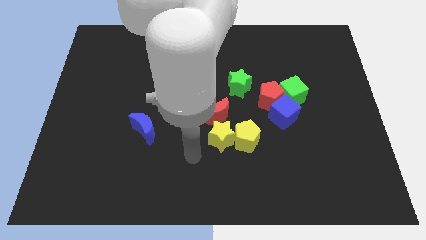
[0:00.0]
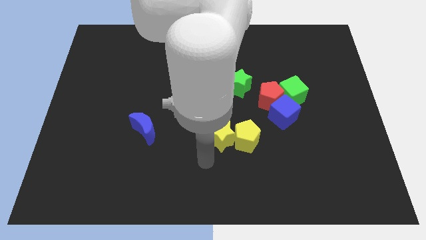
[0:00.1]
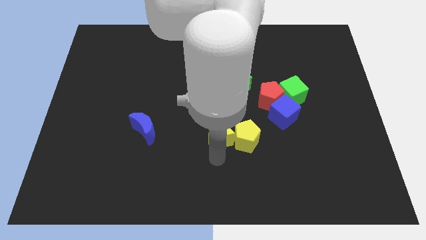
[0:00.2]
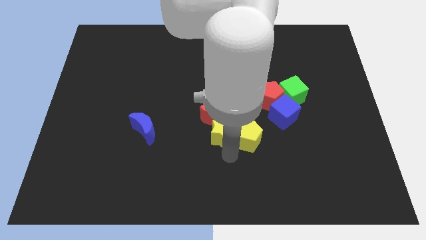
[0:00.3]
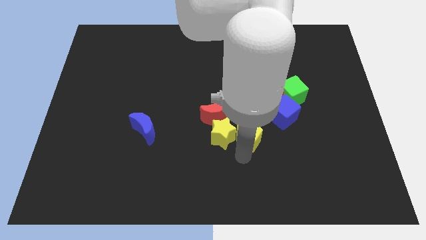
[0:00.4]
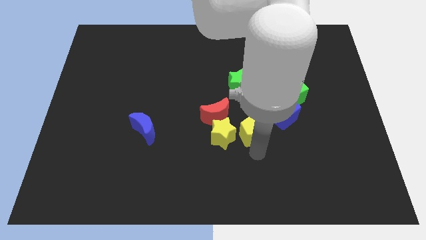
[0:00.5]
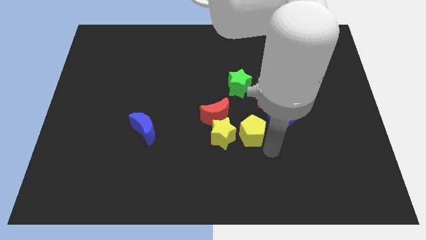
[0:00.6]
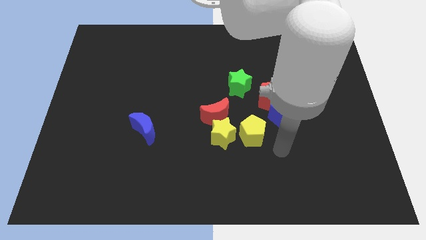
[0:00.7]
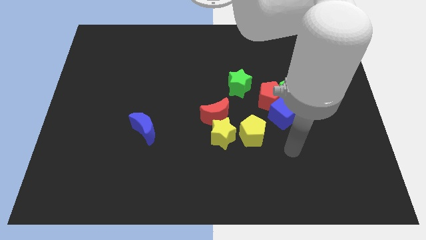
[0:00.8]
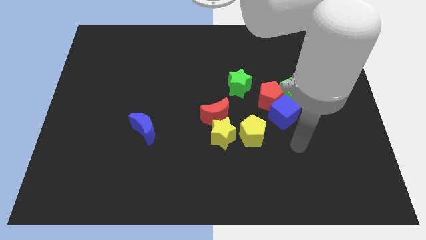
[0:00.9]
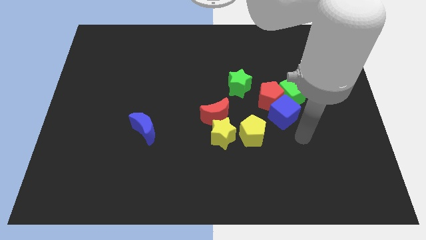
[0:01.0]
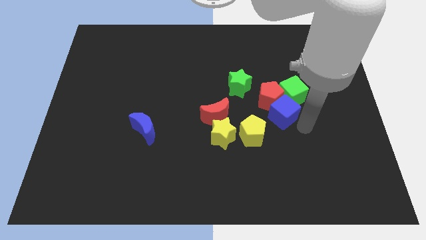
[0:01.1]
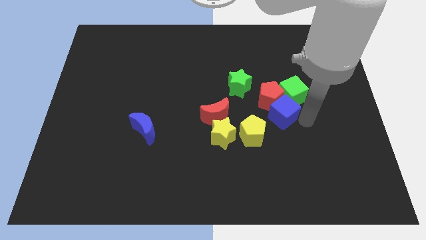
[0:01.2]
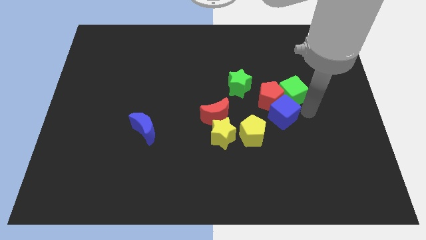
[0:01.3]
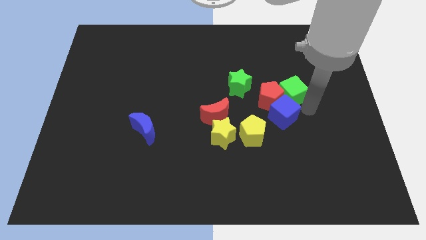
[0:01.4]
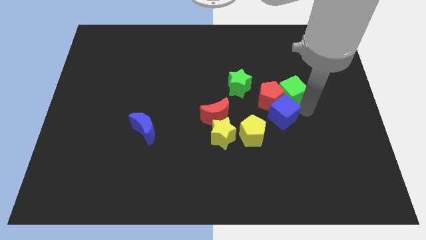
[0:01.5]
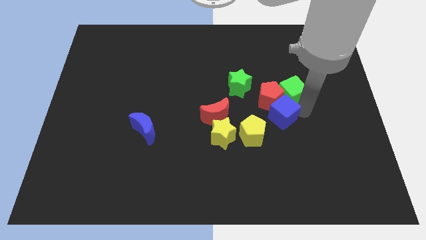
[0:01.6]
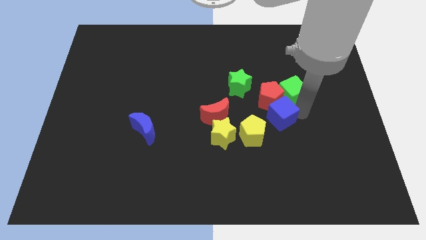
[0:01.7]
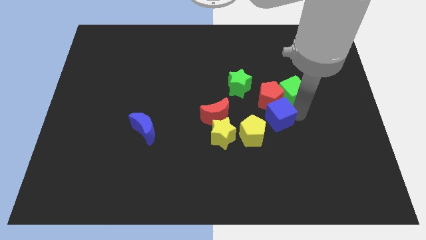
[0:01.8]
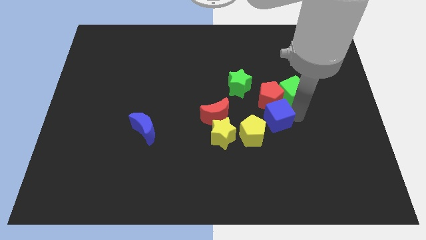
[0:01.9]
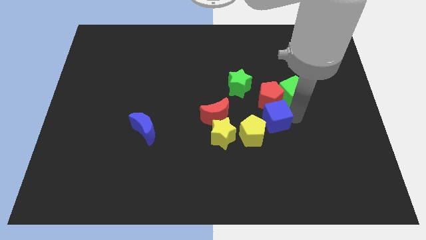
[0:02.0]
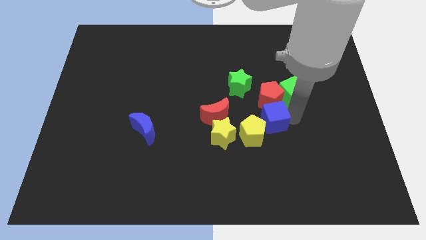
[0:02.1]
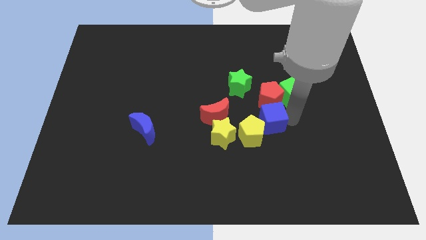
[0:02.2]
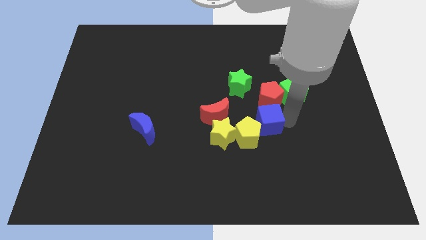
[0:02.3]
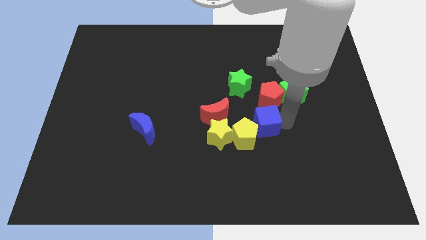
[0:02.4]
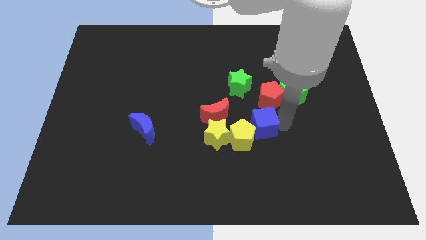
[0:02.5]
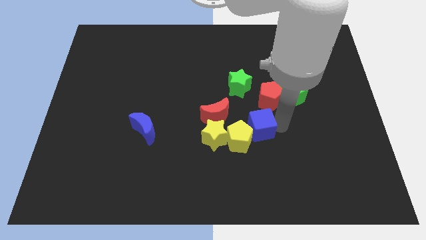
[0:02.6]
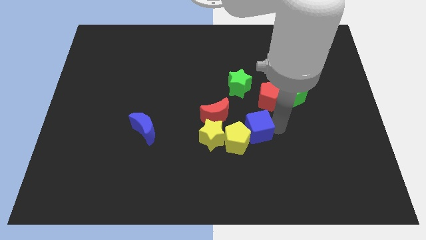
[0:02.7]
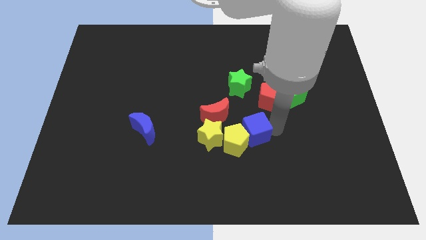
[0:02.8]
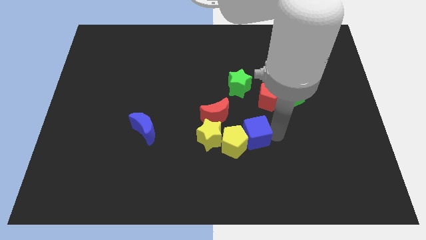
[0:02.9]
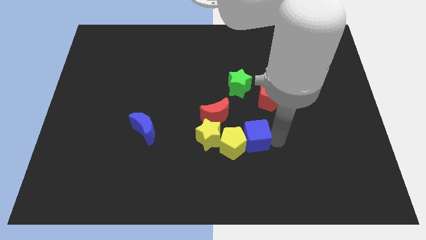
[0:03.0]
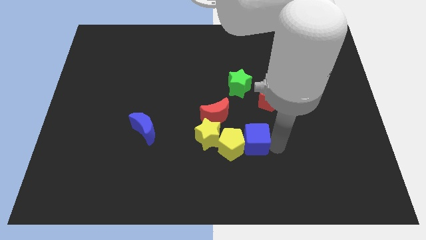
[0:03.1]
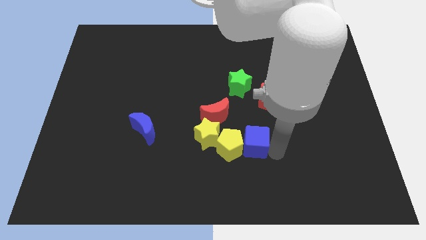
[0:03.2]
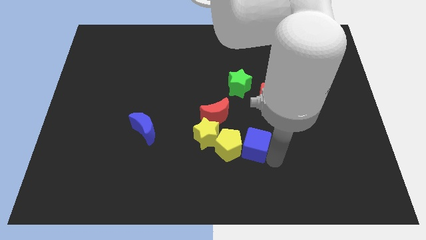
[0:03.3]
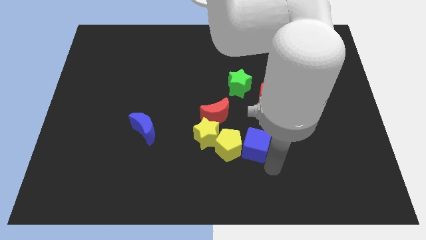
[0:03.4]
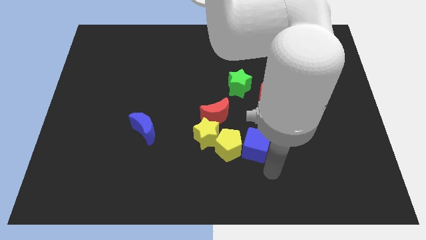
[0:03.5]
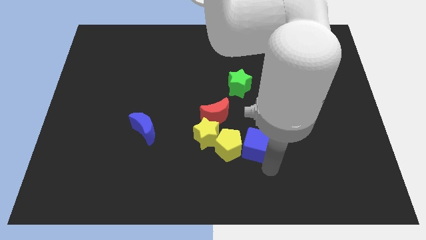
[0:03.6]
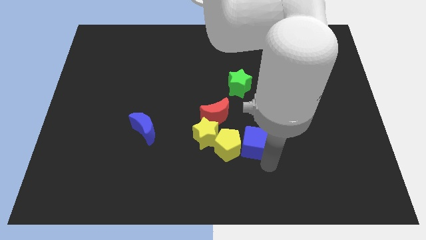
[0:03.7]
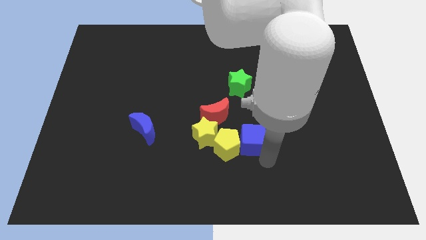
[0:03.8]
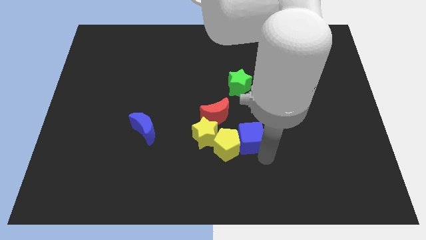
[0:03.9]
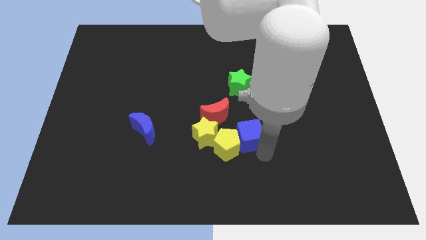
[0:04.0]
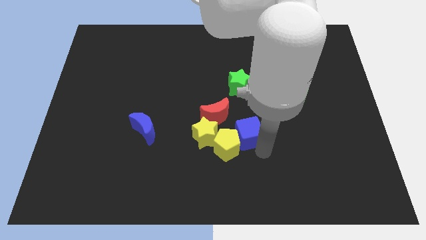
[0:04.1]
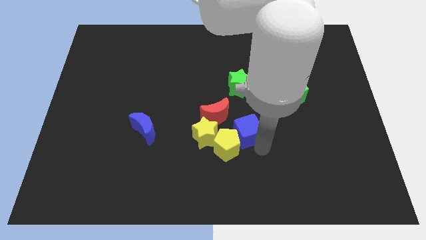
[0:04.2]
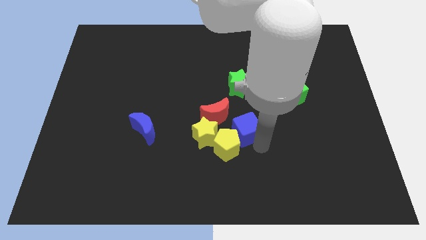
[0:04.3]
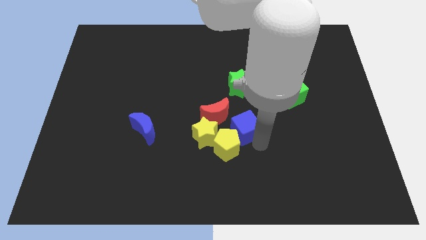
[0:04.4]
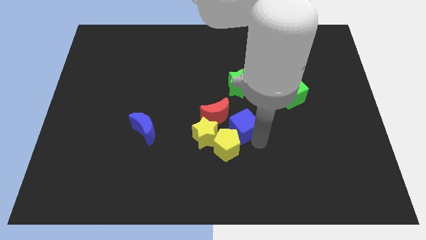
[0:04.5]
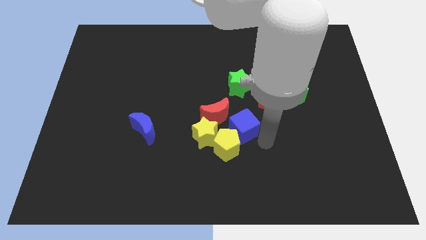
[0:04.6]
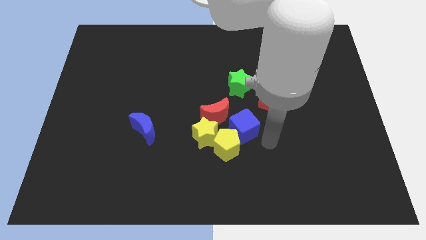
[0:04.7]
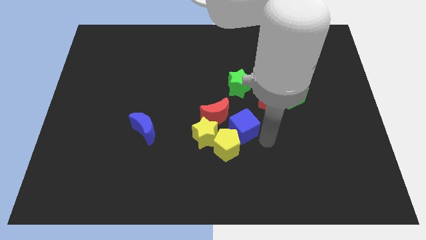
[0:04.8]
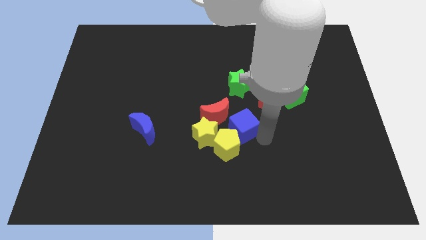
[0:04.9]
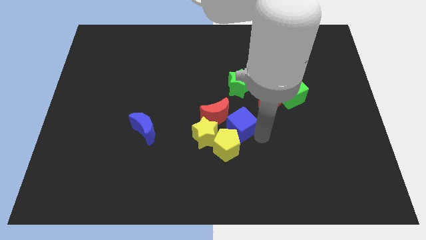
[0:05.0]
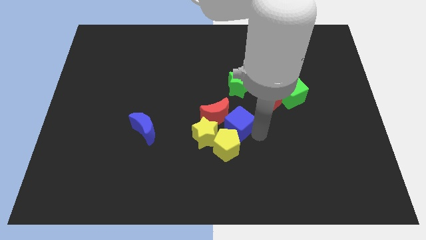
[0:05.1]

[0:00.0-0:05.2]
slide the blue cube next to the red moon

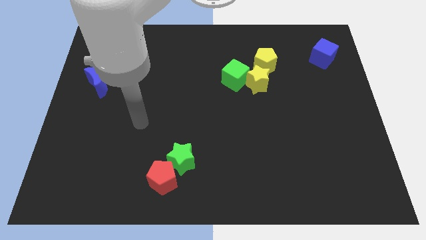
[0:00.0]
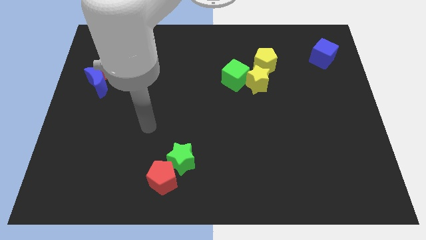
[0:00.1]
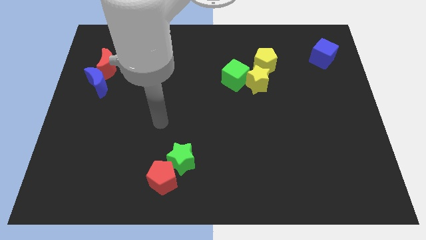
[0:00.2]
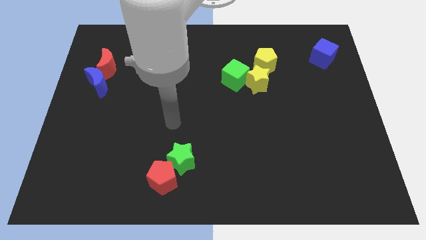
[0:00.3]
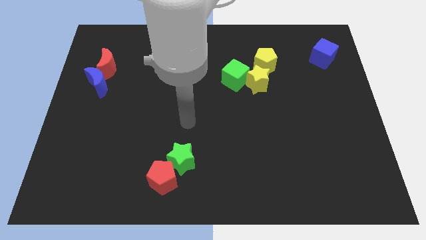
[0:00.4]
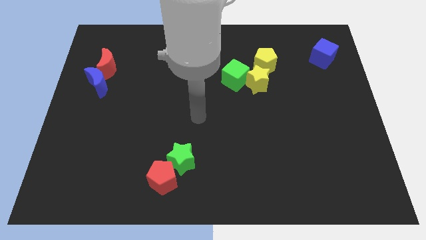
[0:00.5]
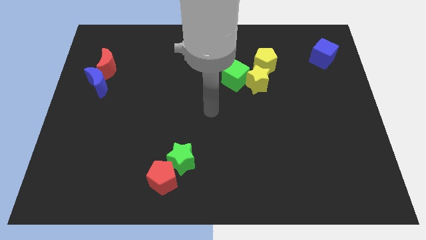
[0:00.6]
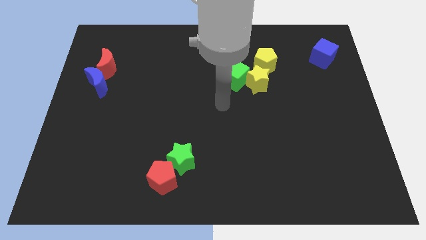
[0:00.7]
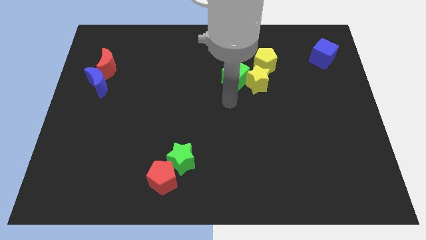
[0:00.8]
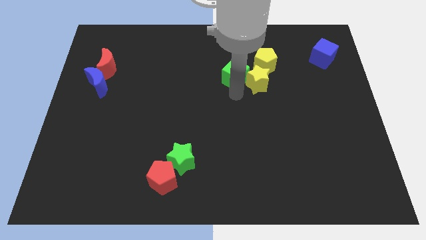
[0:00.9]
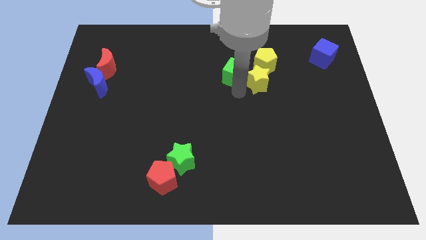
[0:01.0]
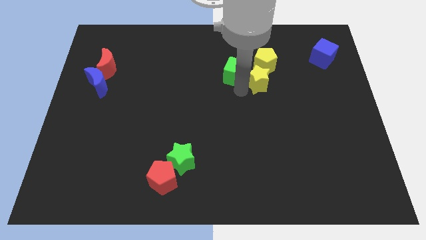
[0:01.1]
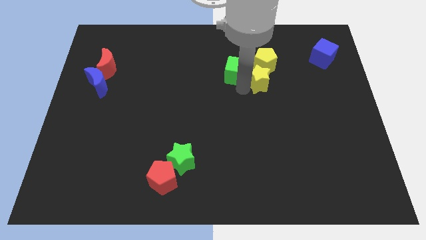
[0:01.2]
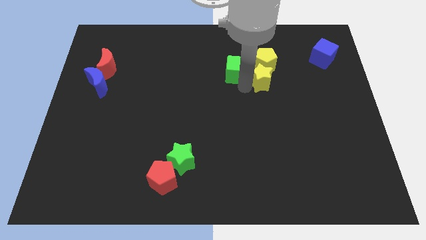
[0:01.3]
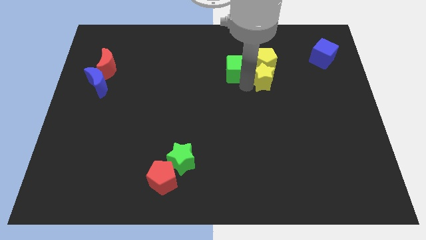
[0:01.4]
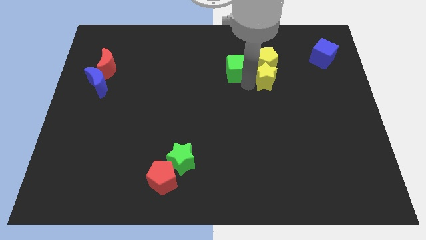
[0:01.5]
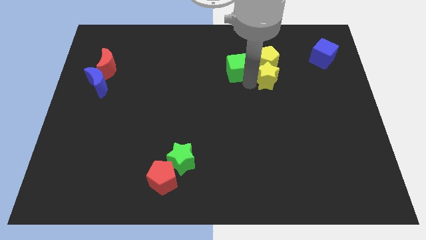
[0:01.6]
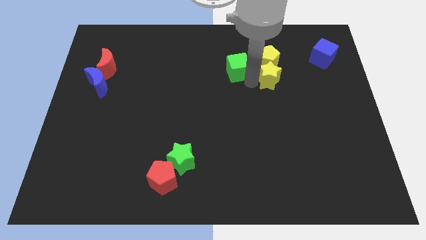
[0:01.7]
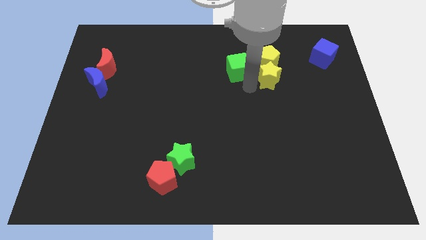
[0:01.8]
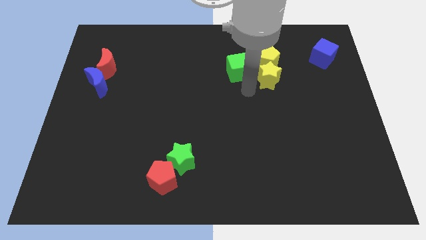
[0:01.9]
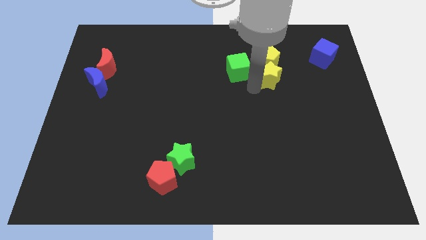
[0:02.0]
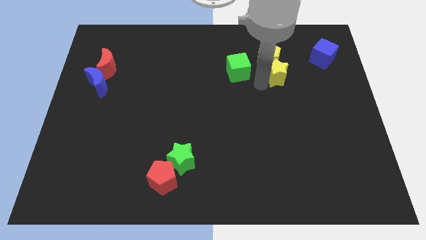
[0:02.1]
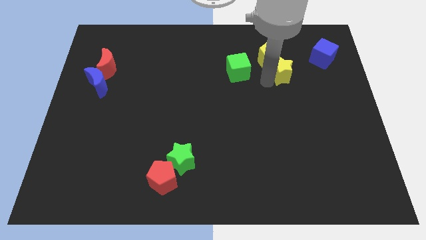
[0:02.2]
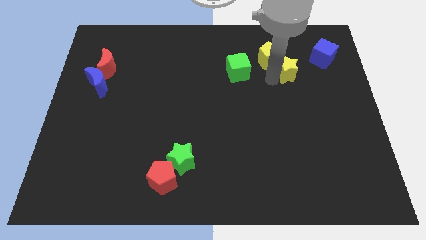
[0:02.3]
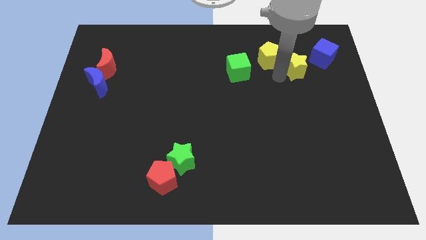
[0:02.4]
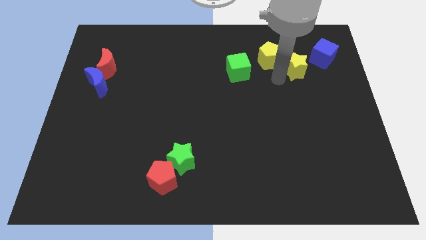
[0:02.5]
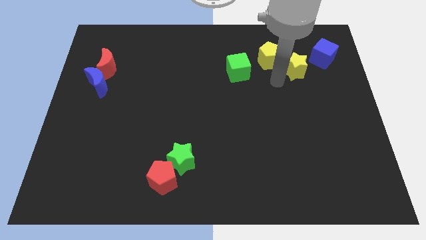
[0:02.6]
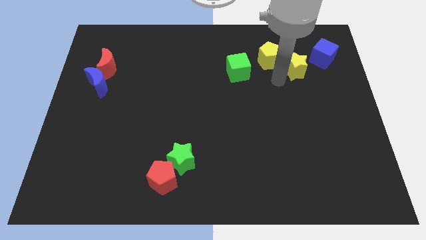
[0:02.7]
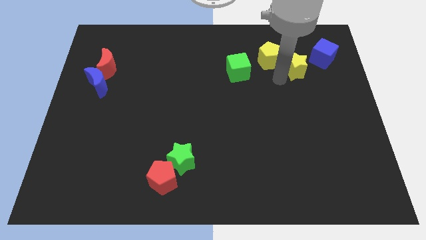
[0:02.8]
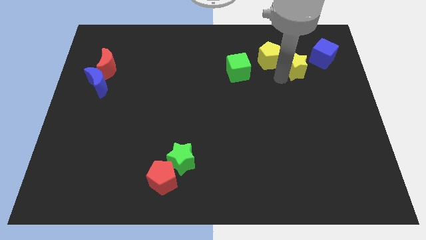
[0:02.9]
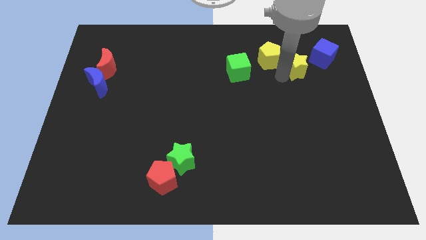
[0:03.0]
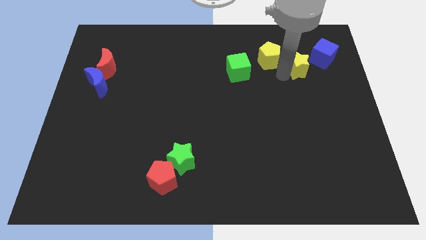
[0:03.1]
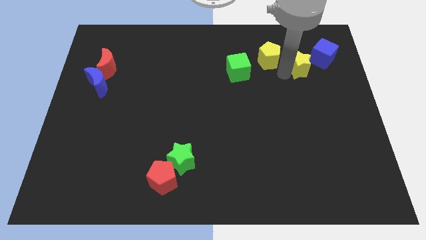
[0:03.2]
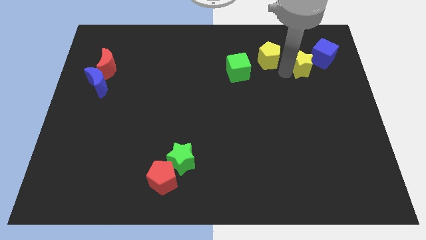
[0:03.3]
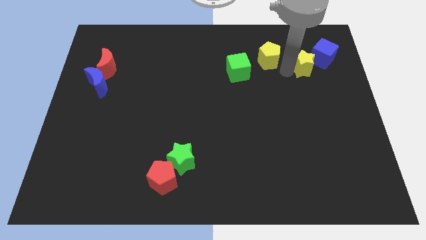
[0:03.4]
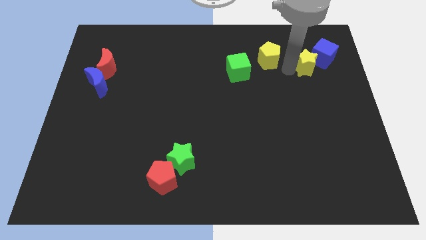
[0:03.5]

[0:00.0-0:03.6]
slide the yellow star close to the blue cube
